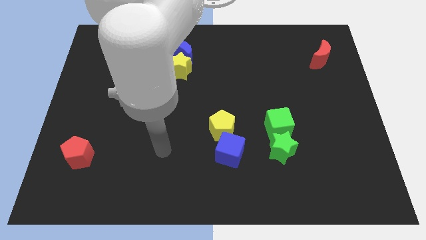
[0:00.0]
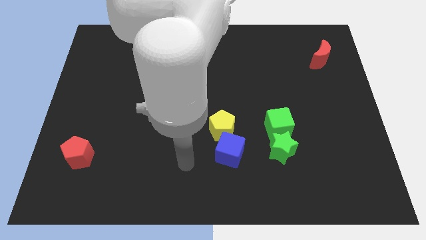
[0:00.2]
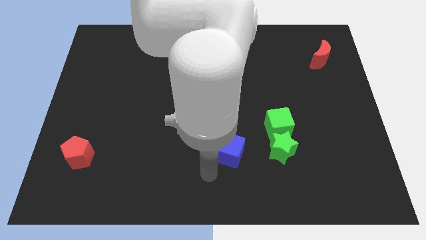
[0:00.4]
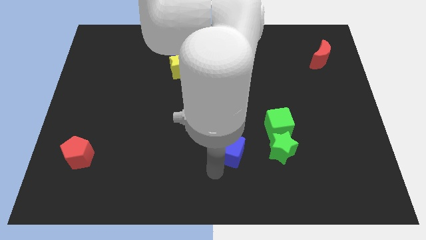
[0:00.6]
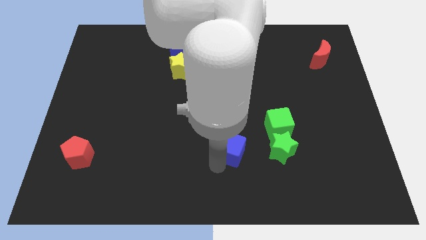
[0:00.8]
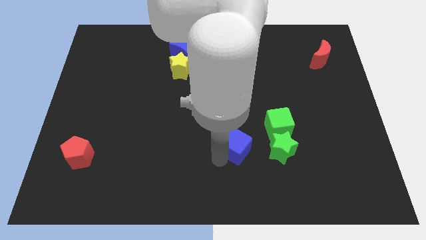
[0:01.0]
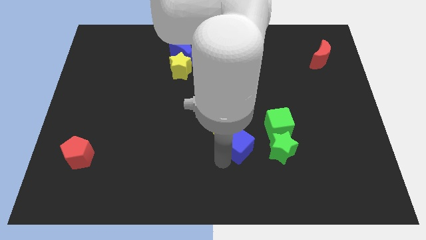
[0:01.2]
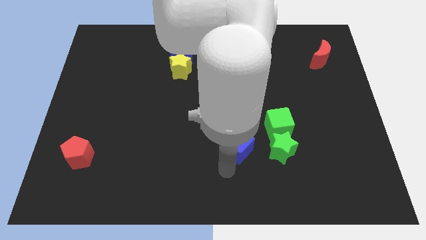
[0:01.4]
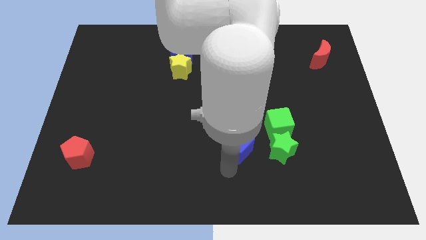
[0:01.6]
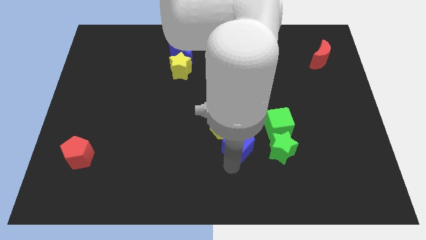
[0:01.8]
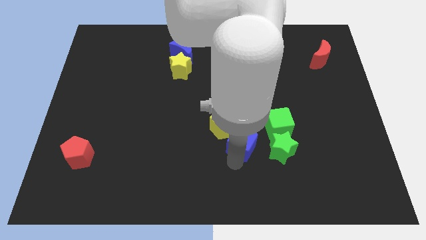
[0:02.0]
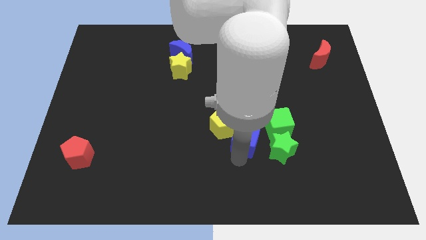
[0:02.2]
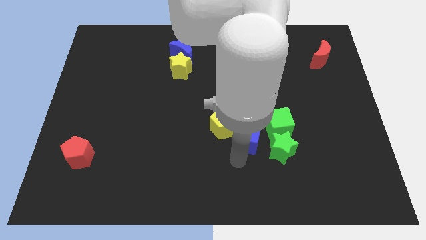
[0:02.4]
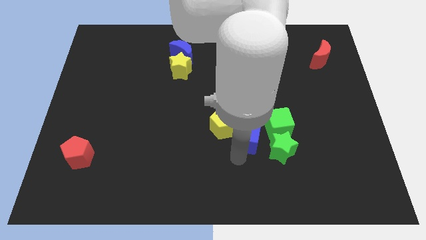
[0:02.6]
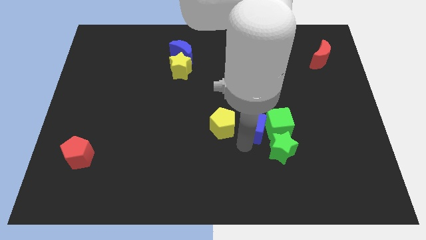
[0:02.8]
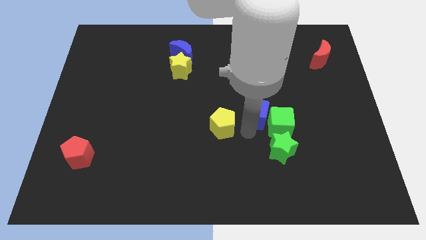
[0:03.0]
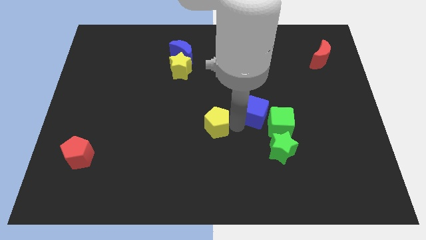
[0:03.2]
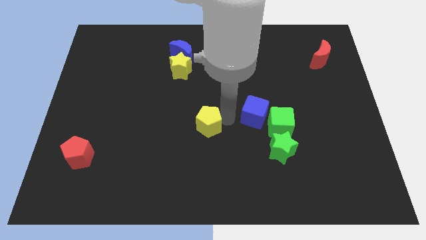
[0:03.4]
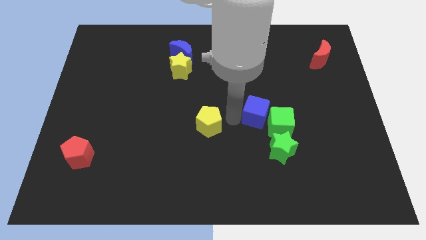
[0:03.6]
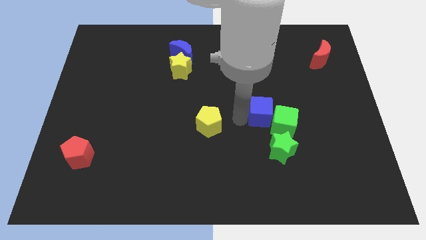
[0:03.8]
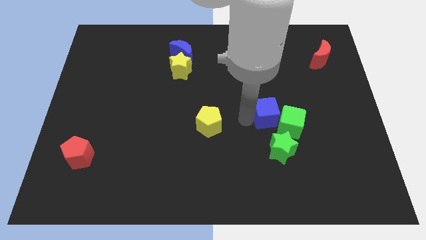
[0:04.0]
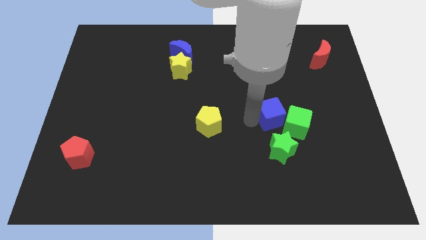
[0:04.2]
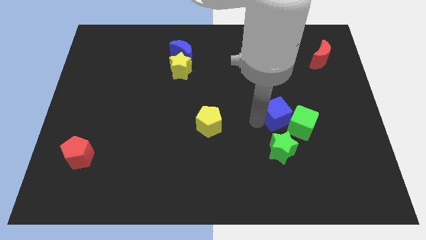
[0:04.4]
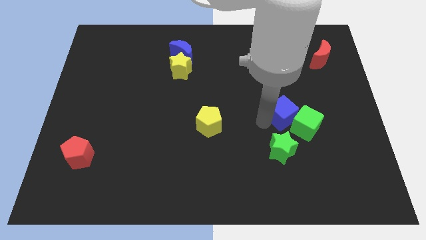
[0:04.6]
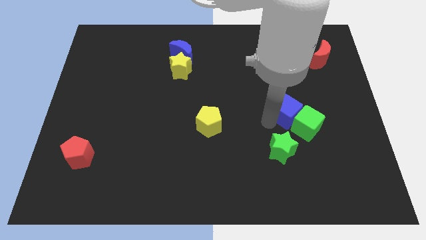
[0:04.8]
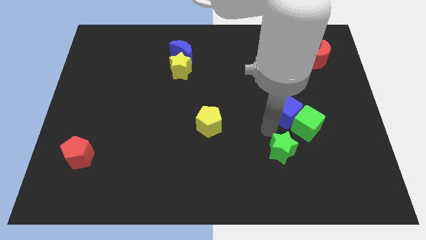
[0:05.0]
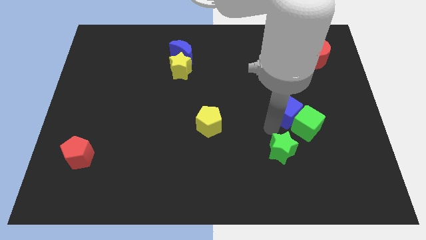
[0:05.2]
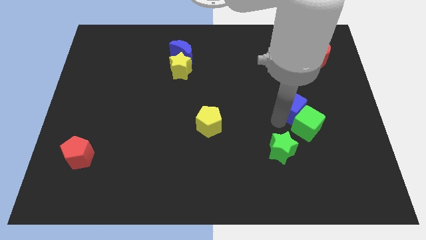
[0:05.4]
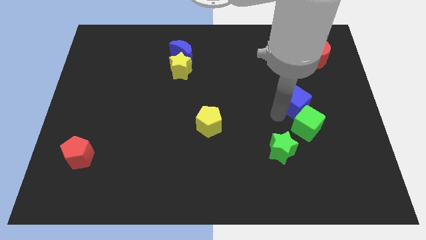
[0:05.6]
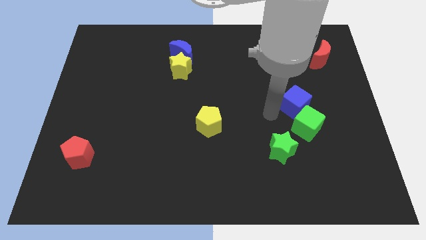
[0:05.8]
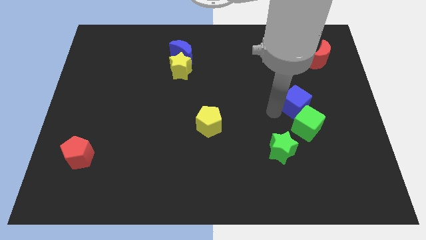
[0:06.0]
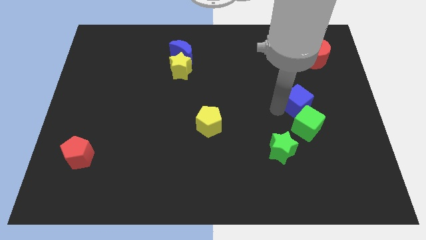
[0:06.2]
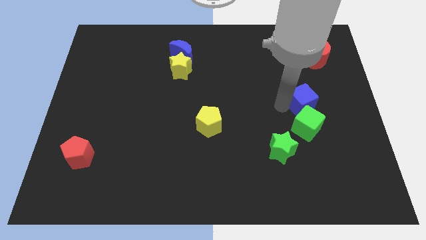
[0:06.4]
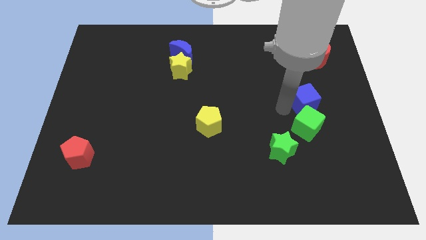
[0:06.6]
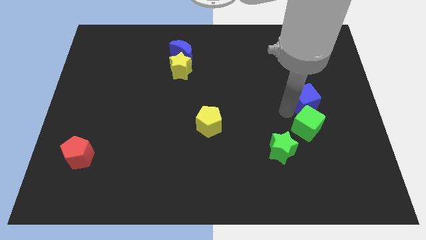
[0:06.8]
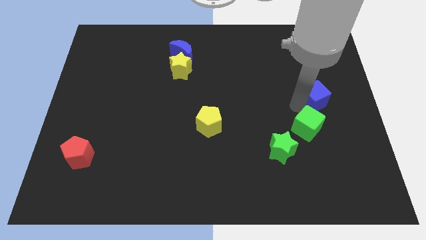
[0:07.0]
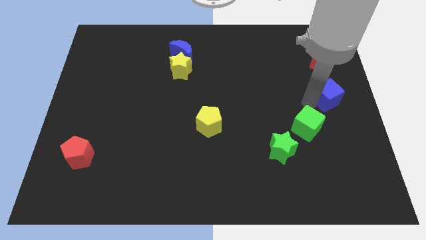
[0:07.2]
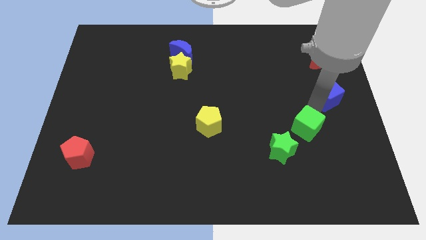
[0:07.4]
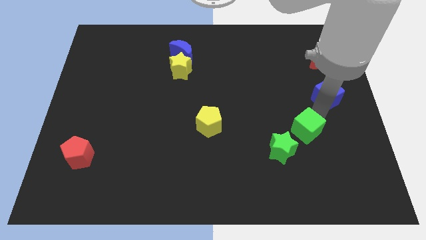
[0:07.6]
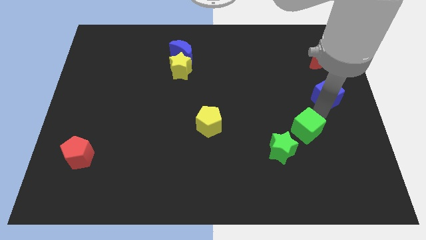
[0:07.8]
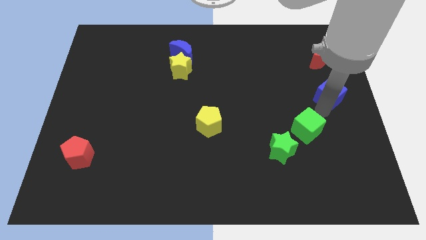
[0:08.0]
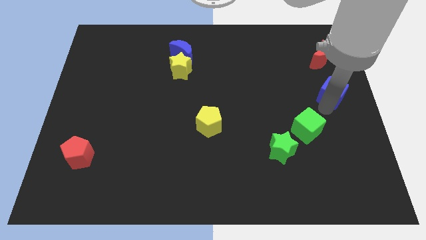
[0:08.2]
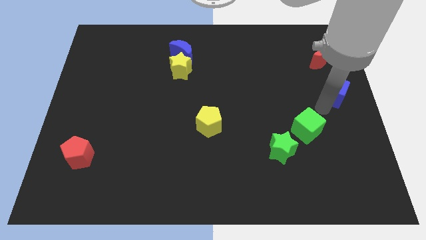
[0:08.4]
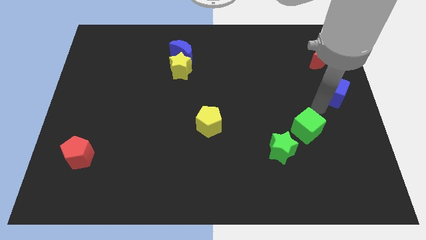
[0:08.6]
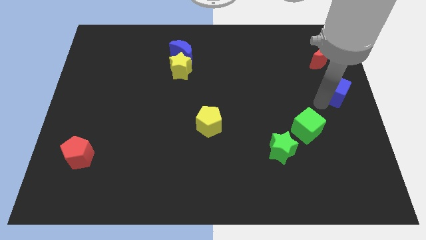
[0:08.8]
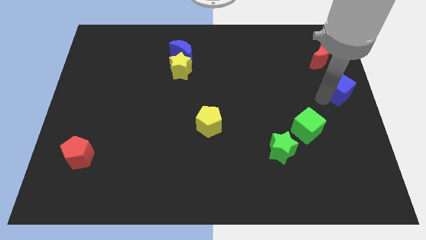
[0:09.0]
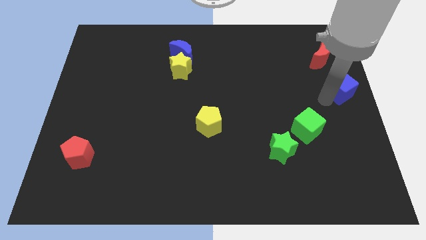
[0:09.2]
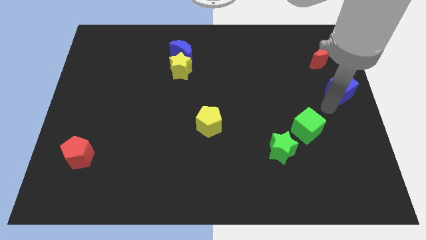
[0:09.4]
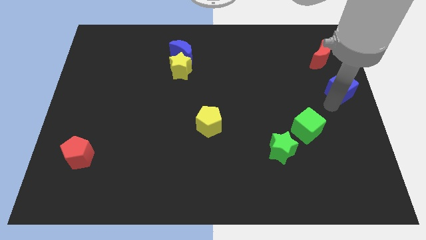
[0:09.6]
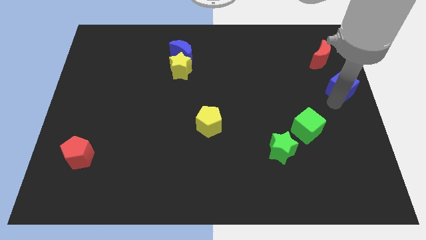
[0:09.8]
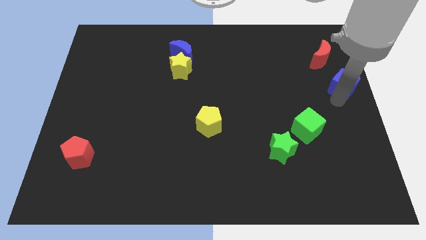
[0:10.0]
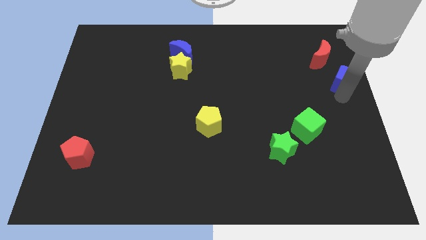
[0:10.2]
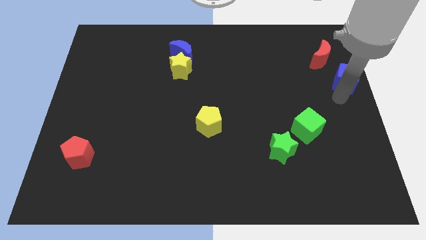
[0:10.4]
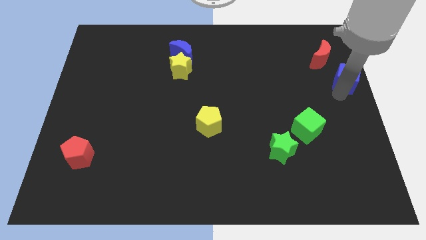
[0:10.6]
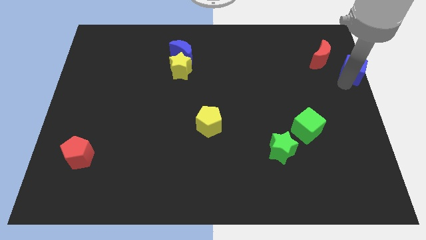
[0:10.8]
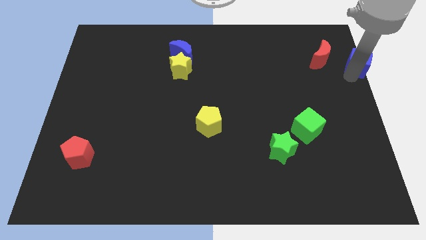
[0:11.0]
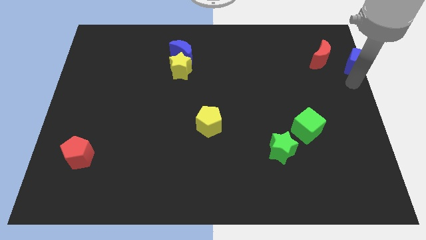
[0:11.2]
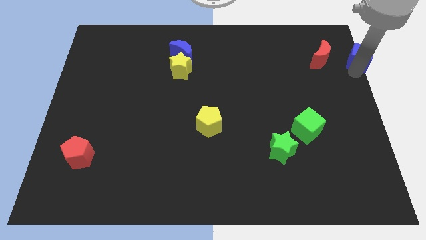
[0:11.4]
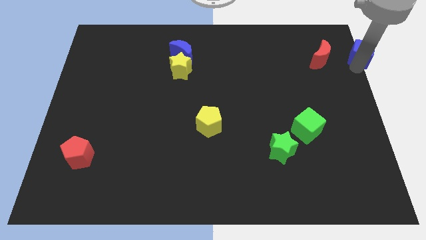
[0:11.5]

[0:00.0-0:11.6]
put the blue cube to the upper right corner
